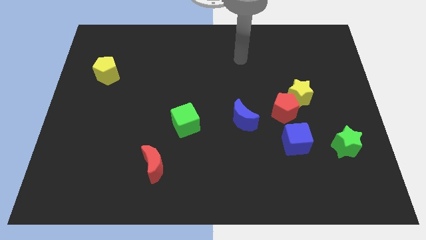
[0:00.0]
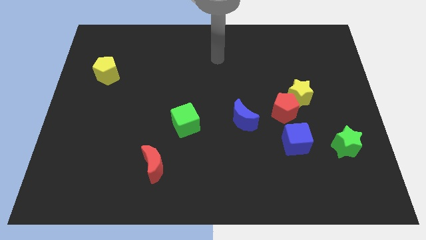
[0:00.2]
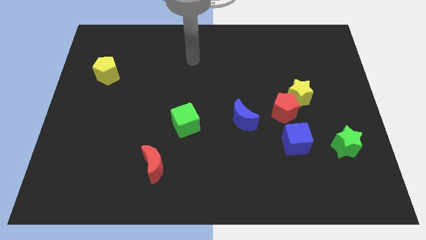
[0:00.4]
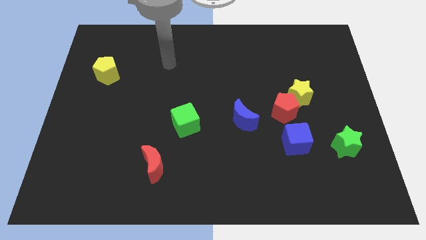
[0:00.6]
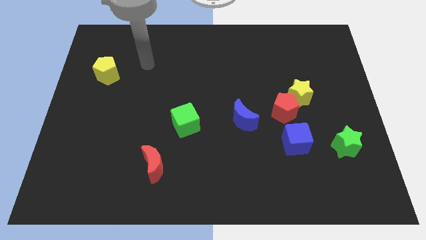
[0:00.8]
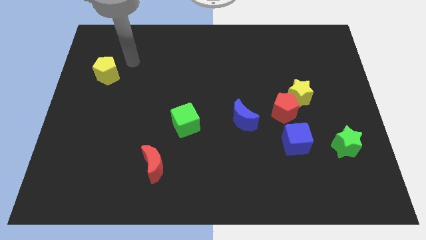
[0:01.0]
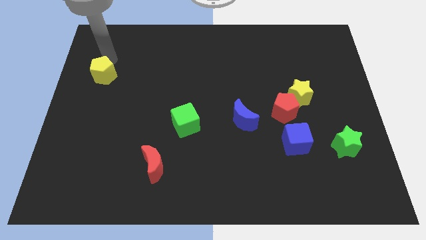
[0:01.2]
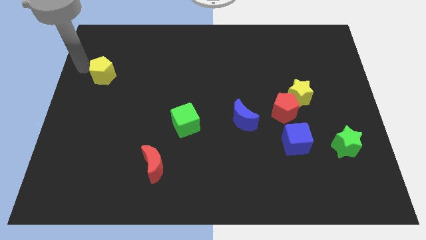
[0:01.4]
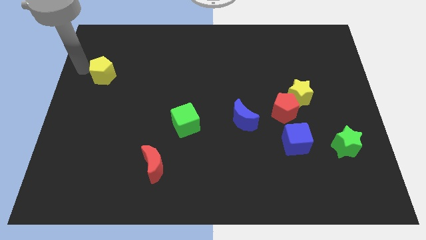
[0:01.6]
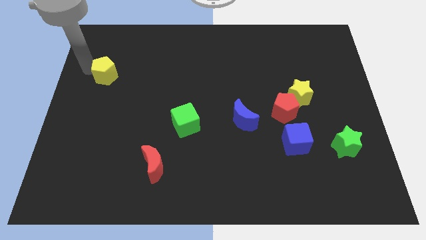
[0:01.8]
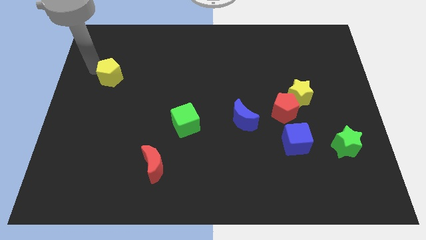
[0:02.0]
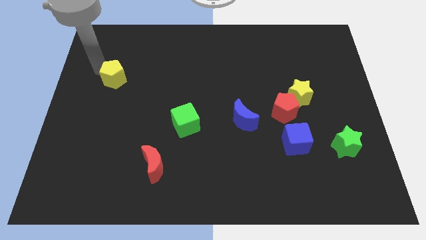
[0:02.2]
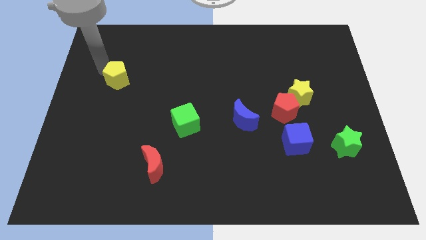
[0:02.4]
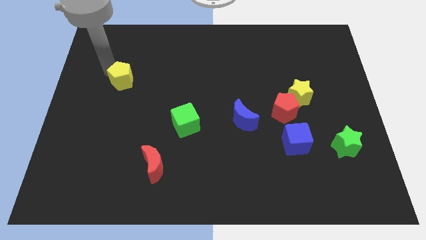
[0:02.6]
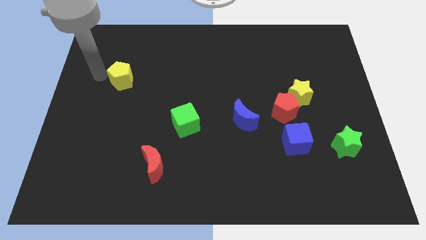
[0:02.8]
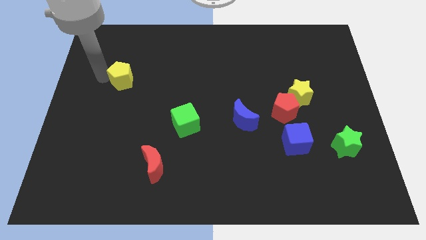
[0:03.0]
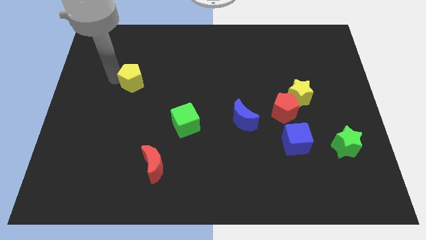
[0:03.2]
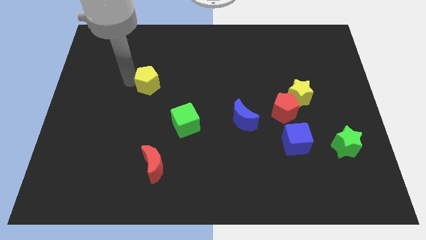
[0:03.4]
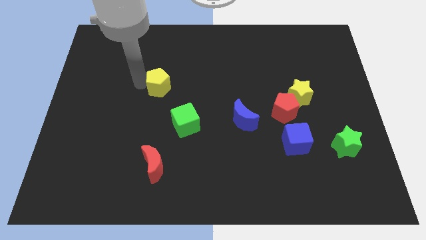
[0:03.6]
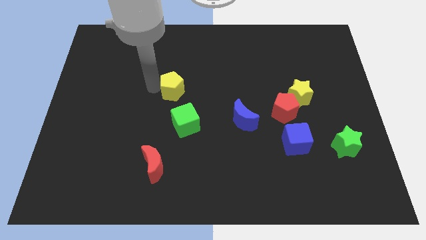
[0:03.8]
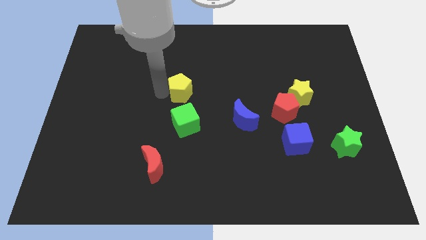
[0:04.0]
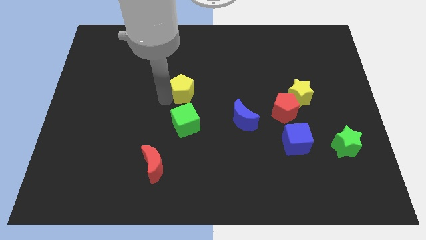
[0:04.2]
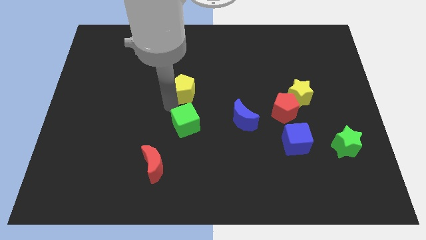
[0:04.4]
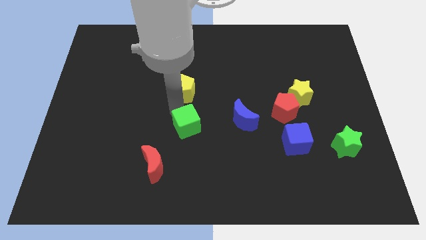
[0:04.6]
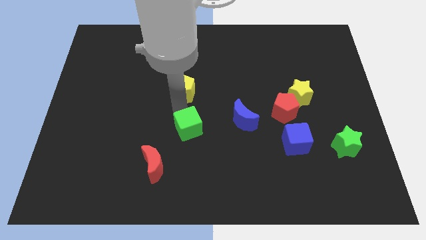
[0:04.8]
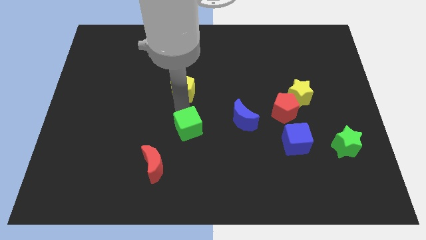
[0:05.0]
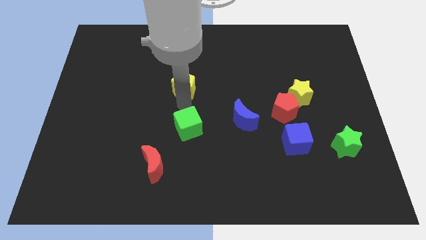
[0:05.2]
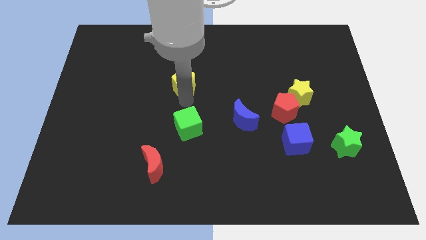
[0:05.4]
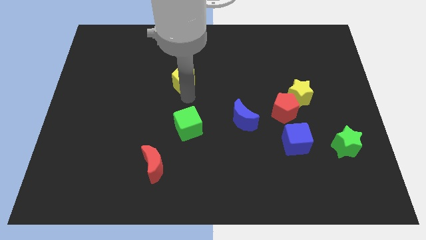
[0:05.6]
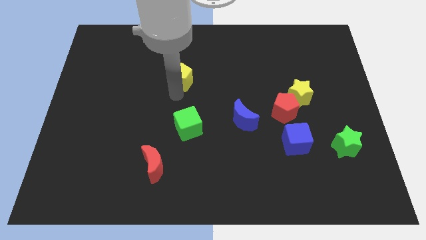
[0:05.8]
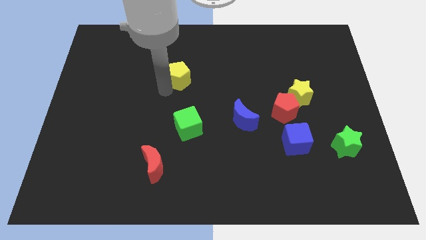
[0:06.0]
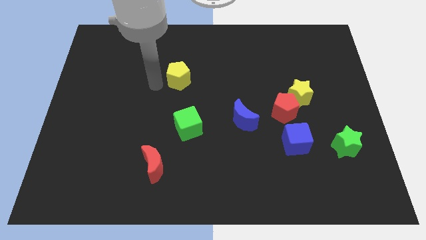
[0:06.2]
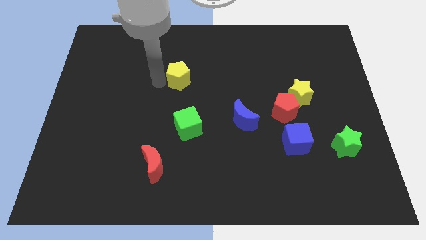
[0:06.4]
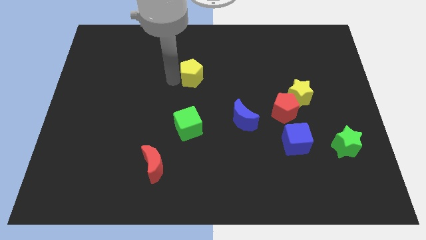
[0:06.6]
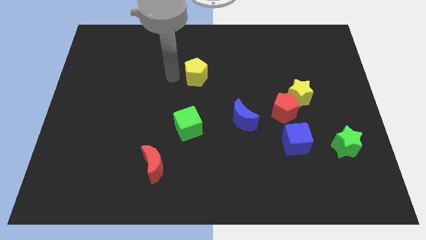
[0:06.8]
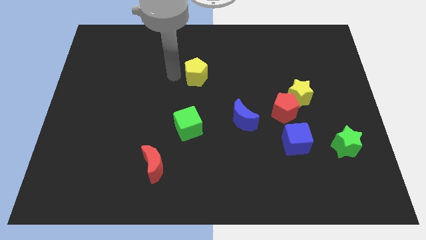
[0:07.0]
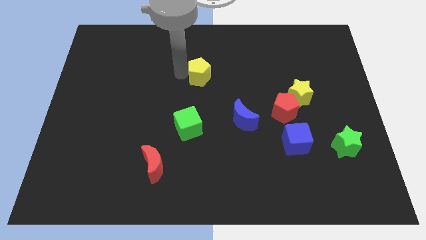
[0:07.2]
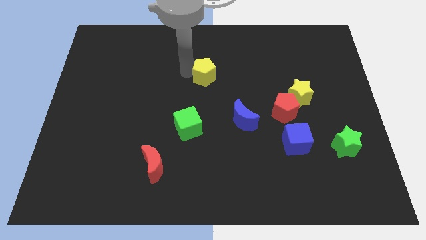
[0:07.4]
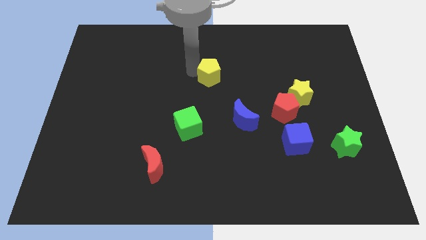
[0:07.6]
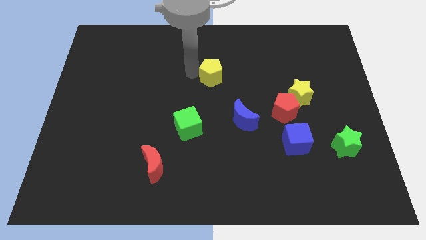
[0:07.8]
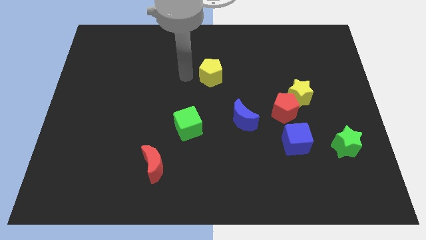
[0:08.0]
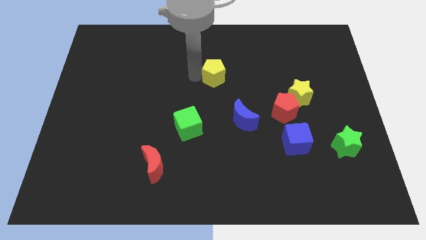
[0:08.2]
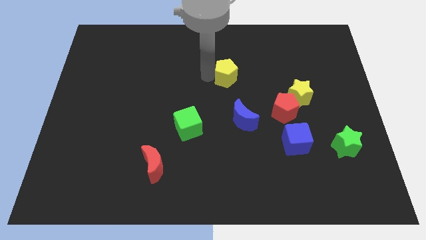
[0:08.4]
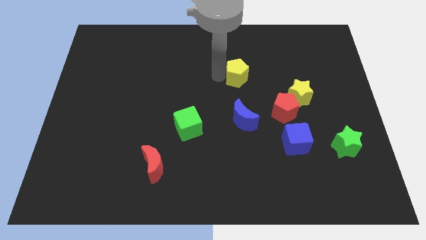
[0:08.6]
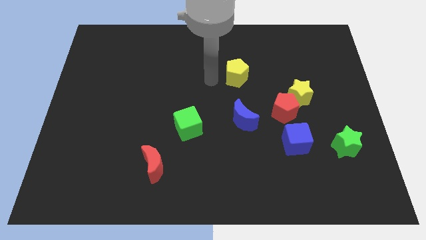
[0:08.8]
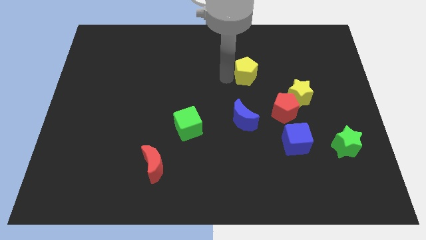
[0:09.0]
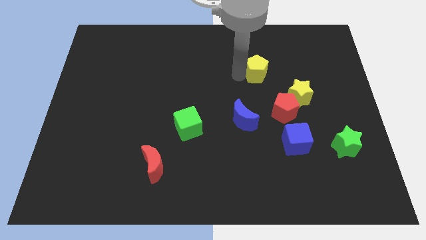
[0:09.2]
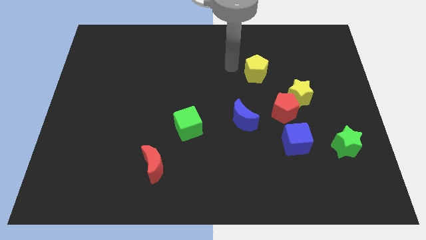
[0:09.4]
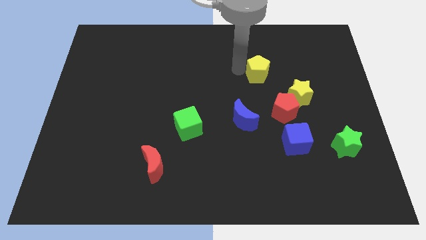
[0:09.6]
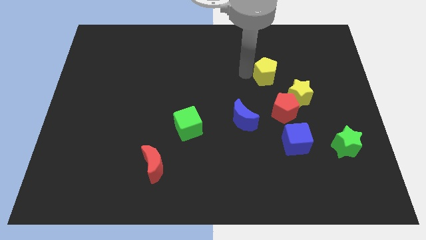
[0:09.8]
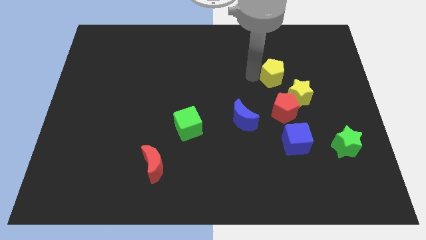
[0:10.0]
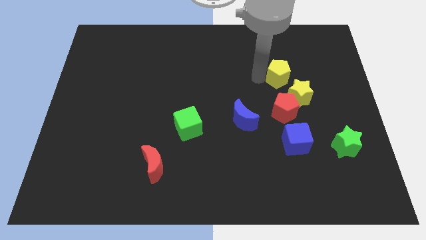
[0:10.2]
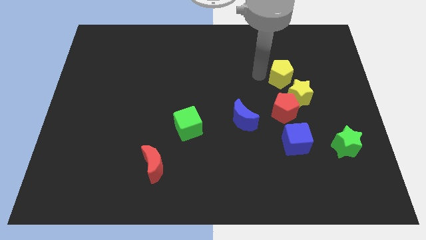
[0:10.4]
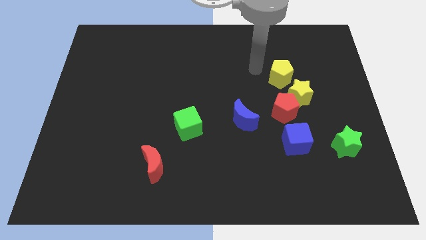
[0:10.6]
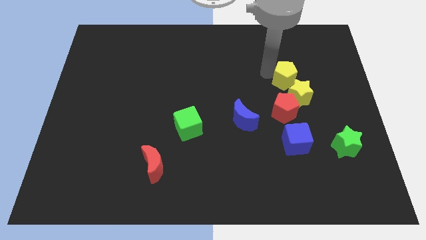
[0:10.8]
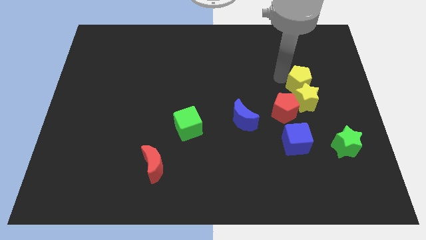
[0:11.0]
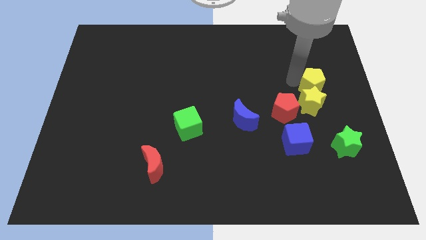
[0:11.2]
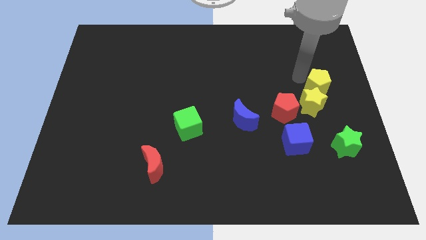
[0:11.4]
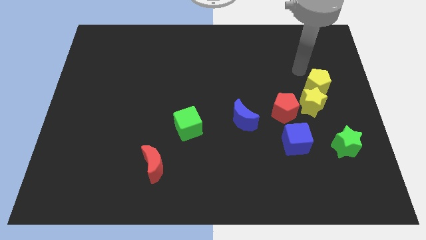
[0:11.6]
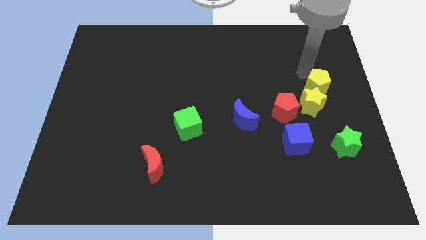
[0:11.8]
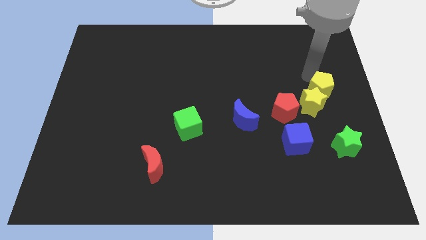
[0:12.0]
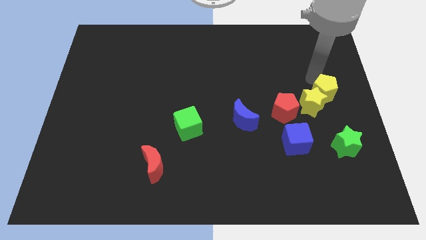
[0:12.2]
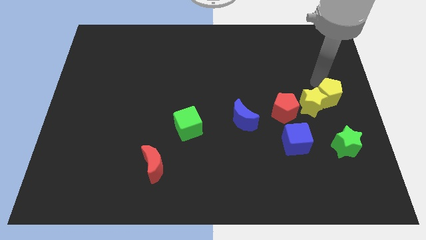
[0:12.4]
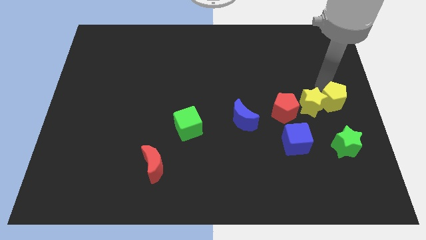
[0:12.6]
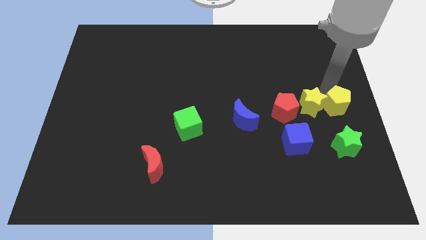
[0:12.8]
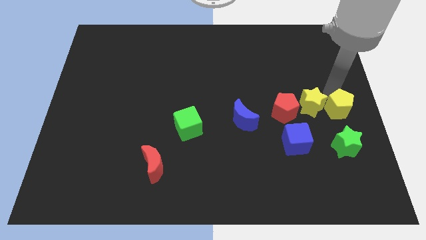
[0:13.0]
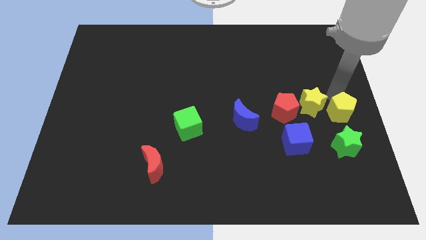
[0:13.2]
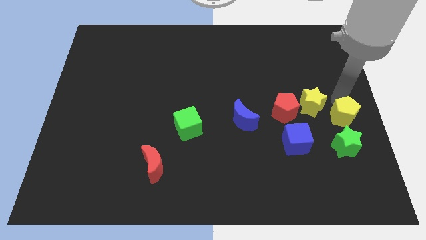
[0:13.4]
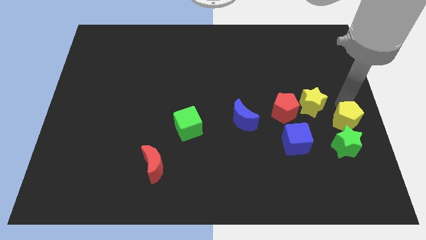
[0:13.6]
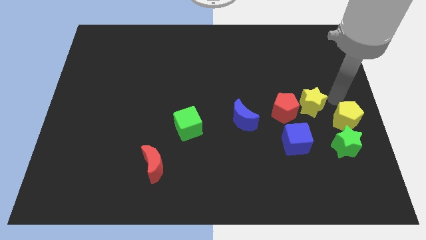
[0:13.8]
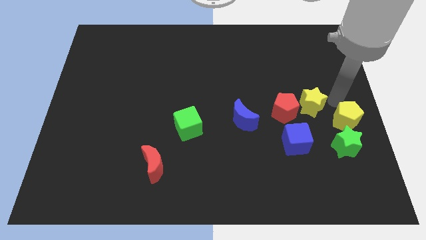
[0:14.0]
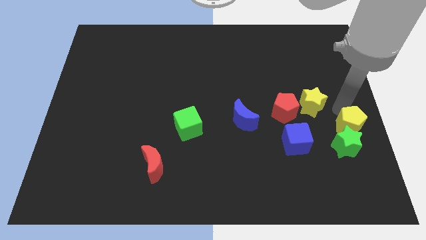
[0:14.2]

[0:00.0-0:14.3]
put the yellow pentagon just right of the blue cube
